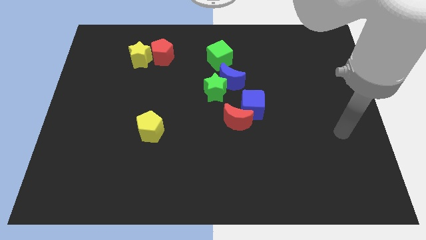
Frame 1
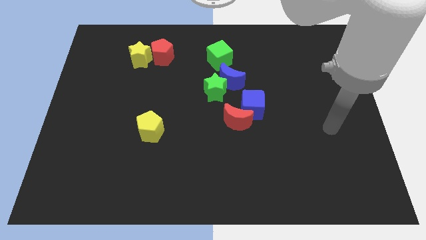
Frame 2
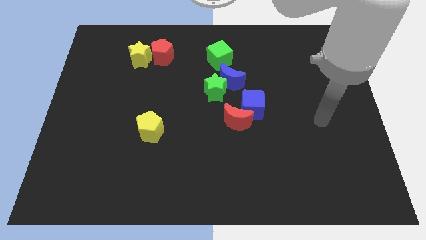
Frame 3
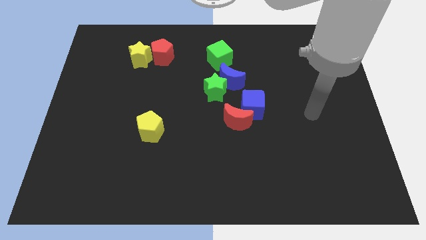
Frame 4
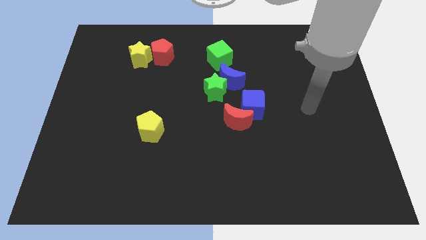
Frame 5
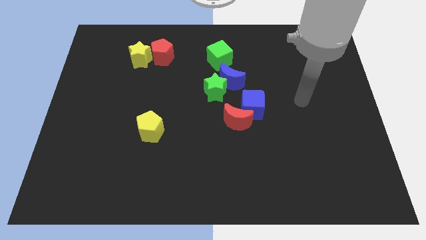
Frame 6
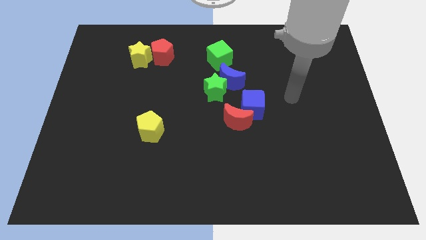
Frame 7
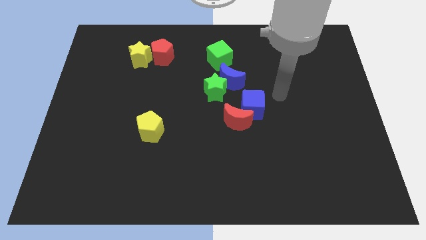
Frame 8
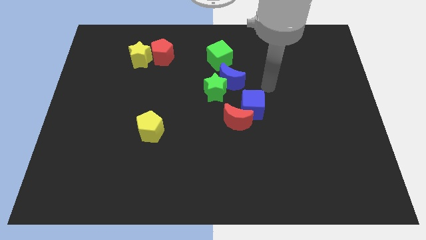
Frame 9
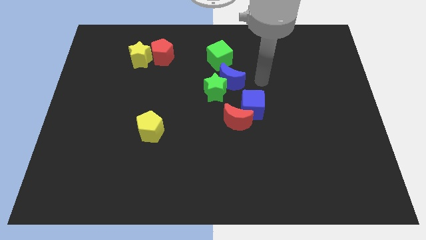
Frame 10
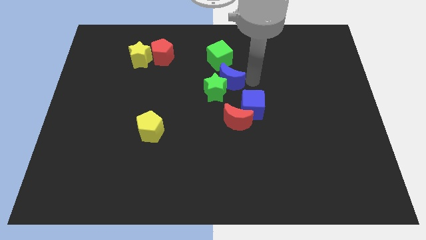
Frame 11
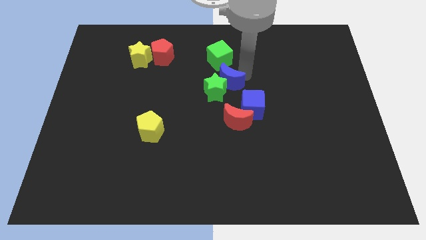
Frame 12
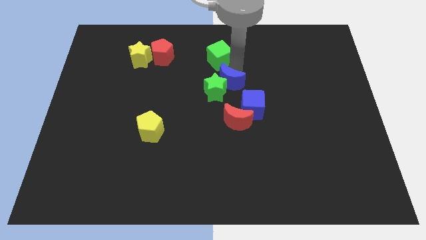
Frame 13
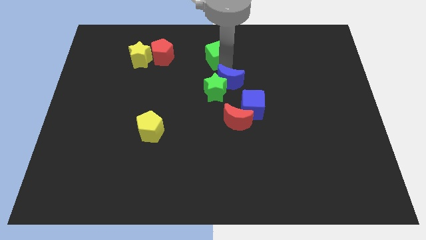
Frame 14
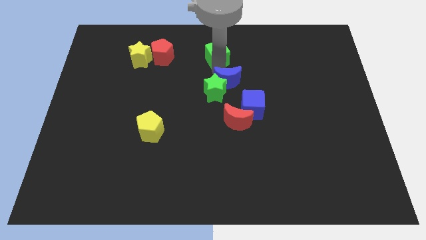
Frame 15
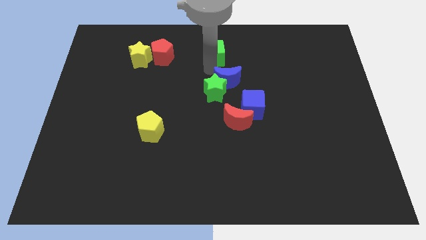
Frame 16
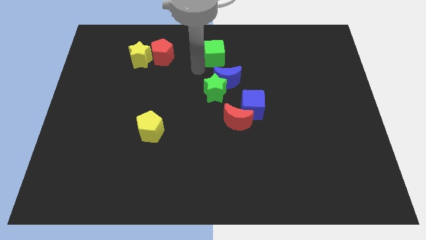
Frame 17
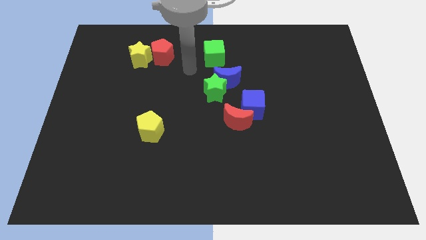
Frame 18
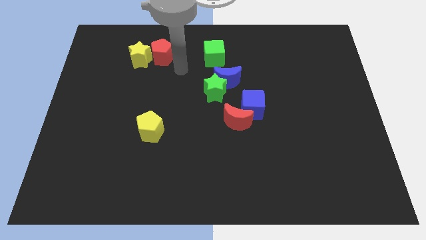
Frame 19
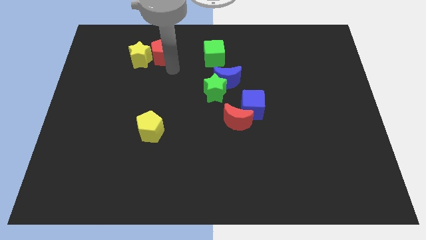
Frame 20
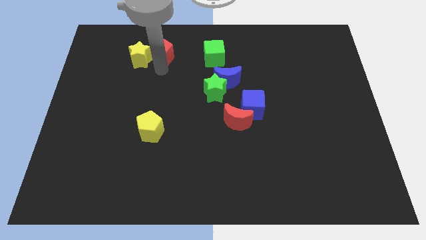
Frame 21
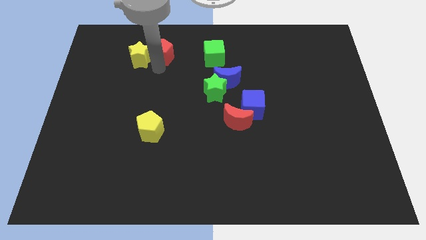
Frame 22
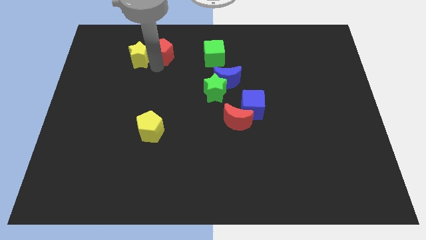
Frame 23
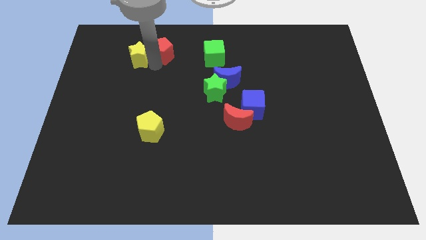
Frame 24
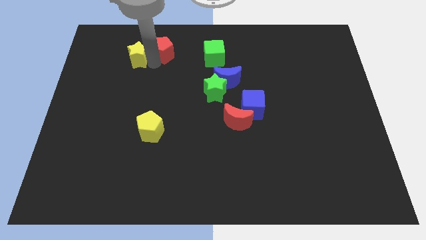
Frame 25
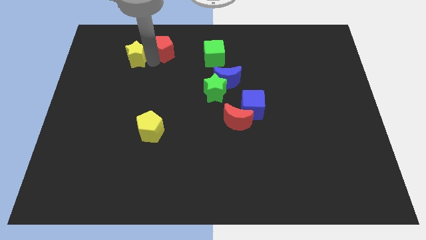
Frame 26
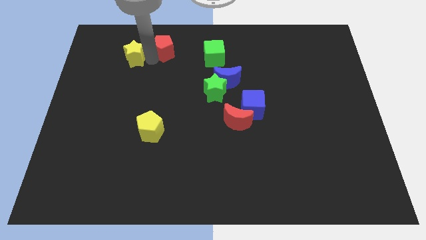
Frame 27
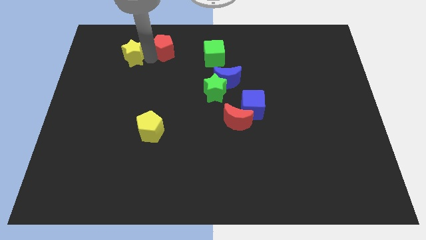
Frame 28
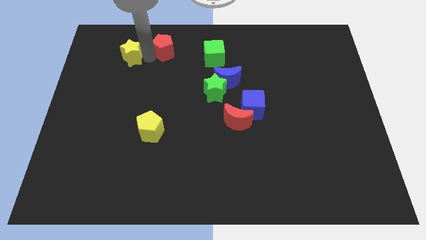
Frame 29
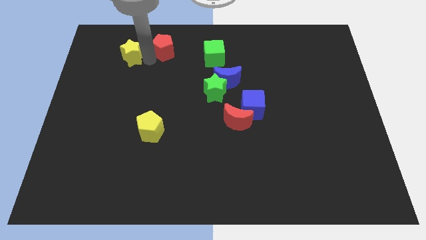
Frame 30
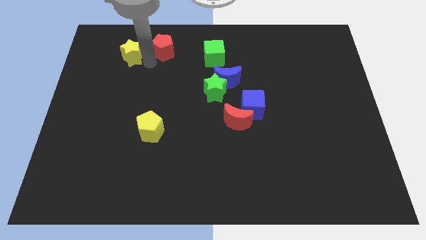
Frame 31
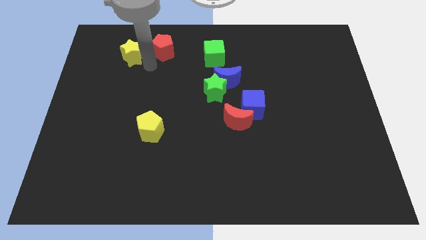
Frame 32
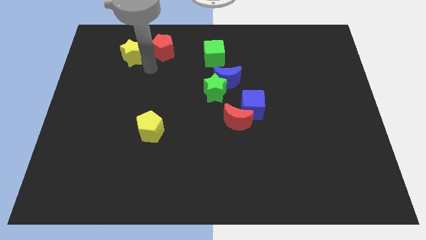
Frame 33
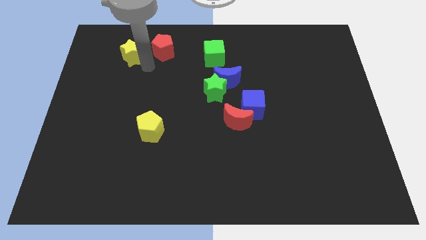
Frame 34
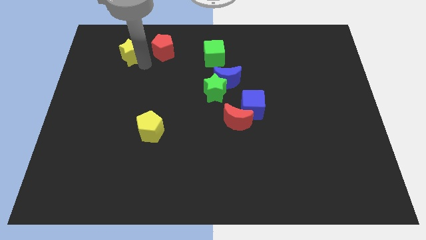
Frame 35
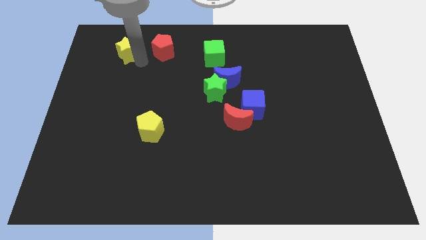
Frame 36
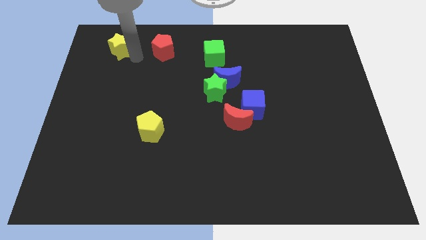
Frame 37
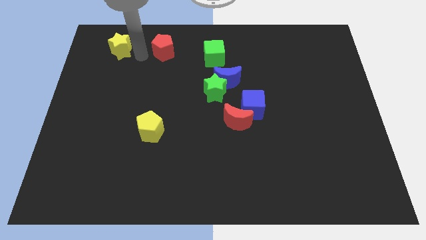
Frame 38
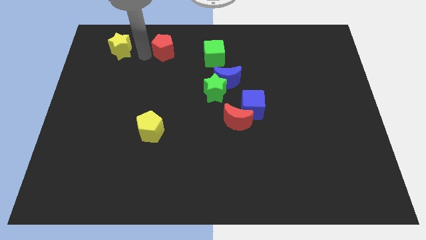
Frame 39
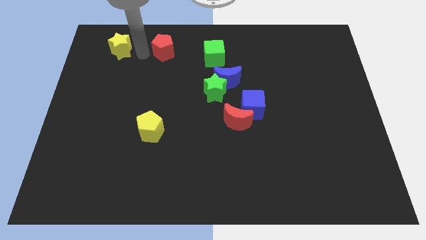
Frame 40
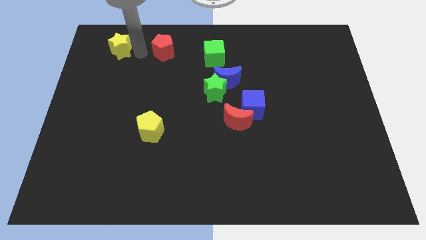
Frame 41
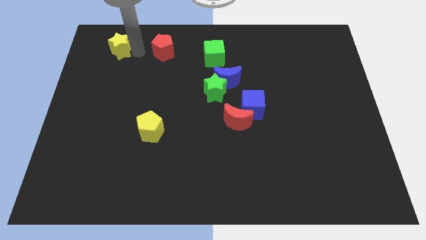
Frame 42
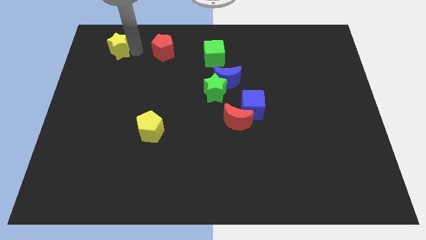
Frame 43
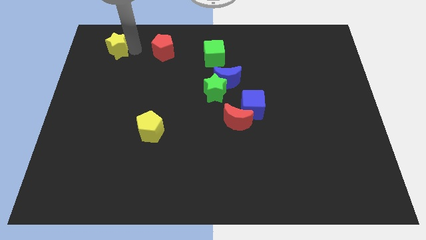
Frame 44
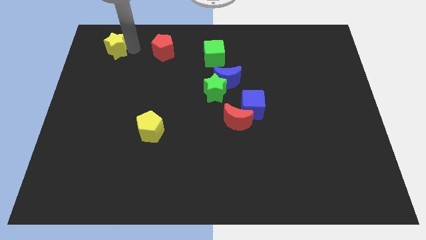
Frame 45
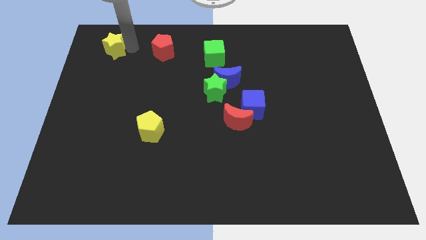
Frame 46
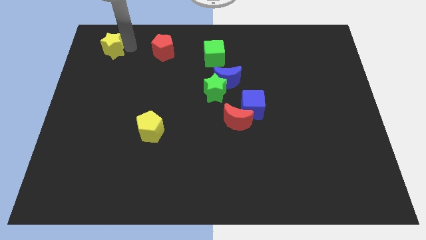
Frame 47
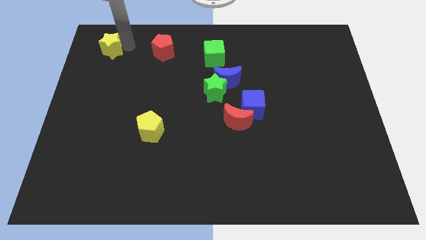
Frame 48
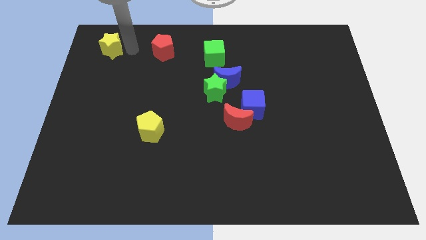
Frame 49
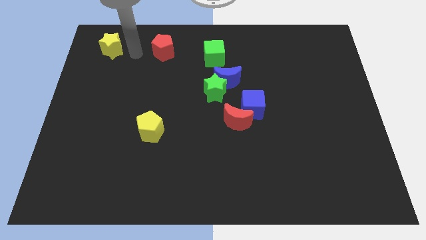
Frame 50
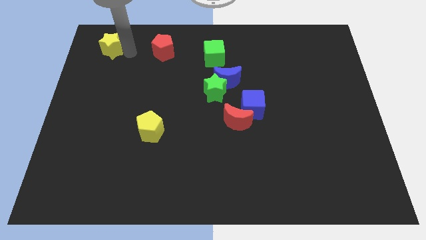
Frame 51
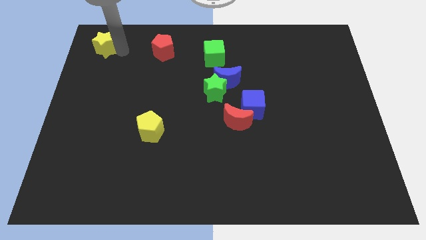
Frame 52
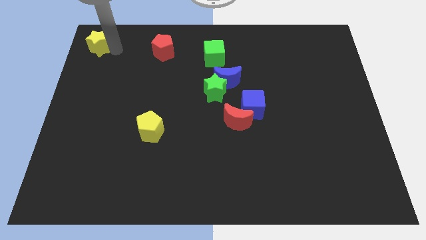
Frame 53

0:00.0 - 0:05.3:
put the yellow star to the top left corner

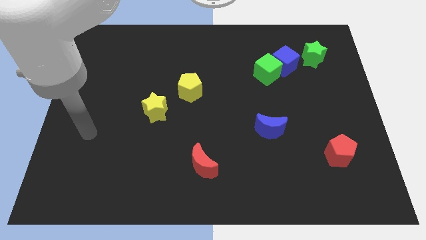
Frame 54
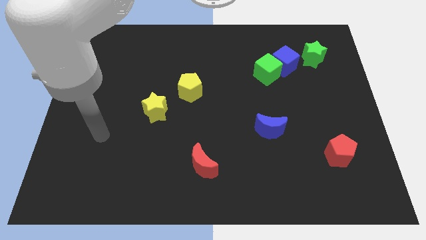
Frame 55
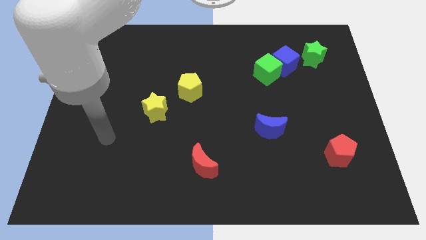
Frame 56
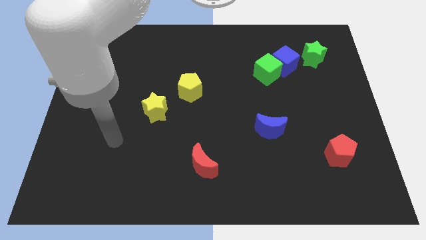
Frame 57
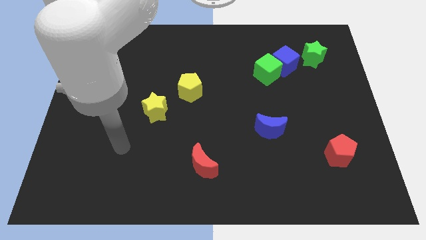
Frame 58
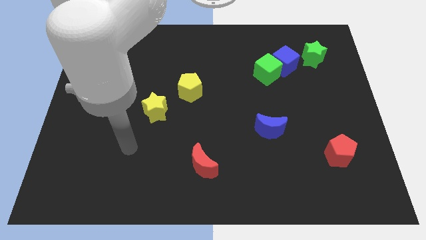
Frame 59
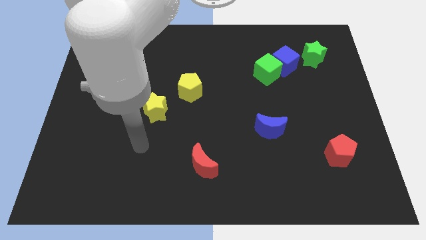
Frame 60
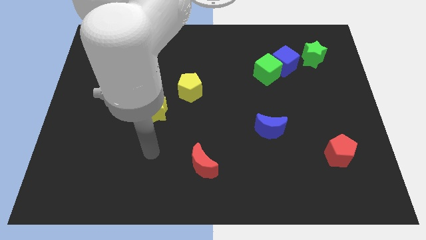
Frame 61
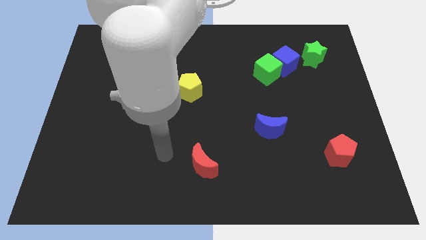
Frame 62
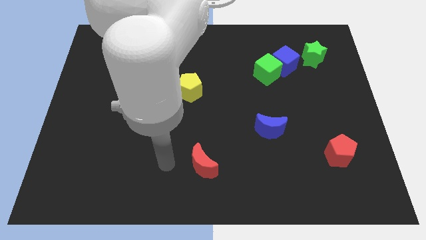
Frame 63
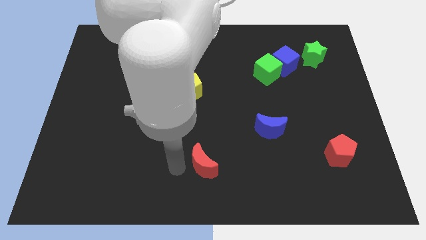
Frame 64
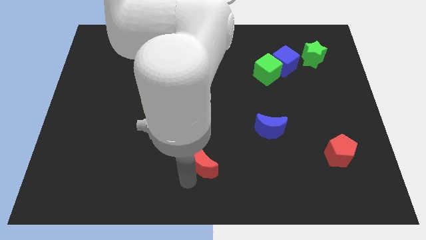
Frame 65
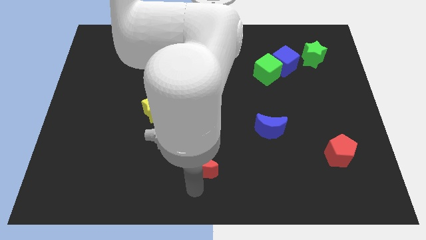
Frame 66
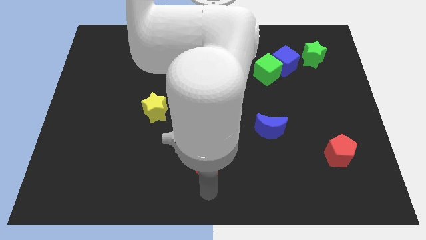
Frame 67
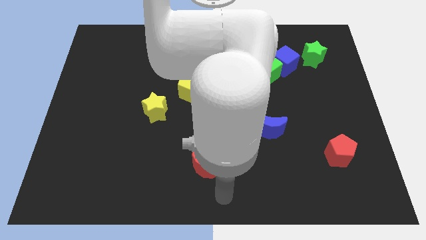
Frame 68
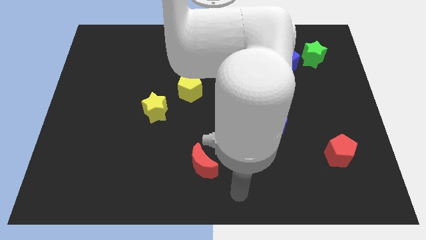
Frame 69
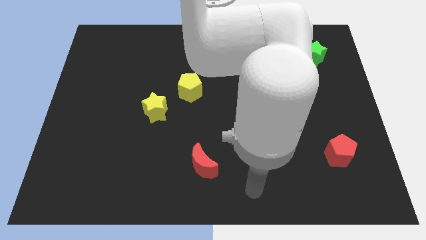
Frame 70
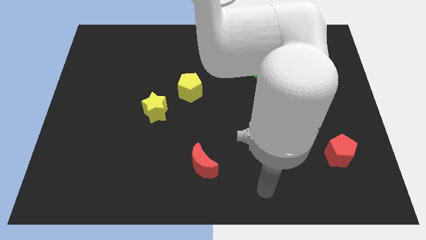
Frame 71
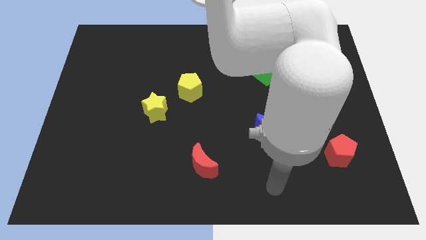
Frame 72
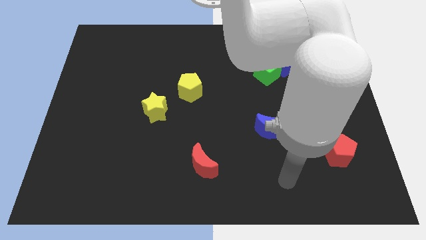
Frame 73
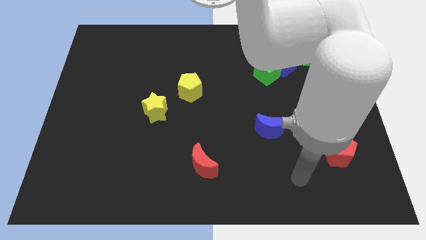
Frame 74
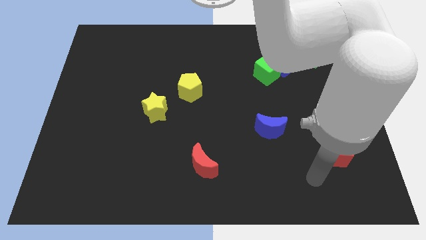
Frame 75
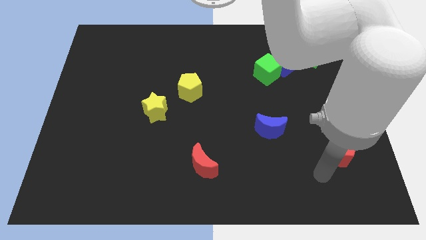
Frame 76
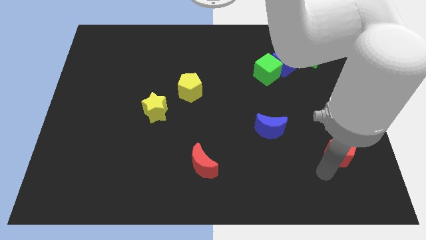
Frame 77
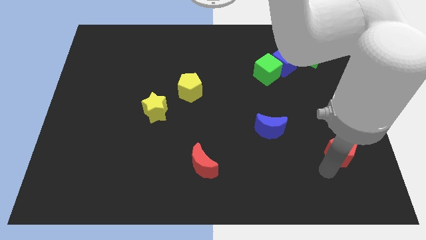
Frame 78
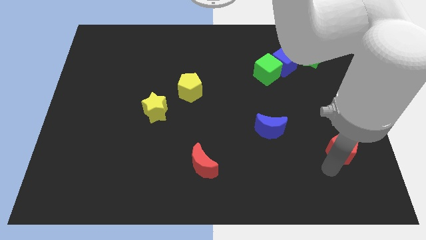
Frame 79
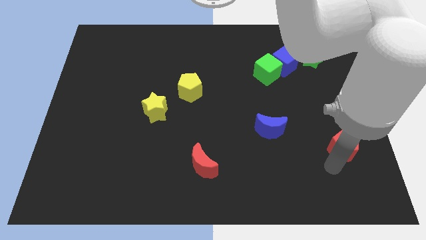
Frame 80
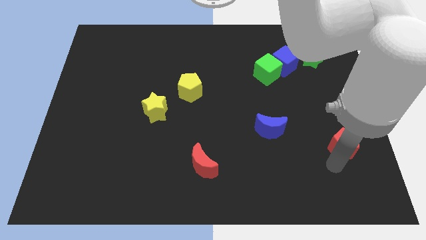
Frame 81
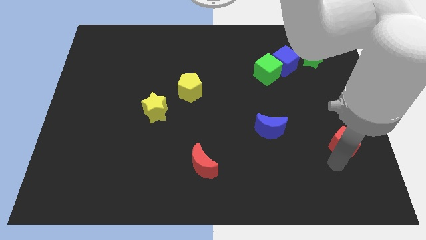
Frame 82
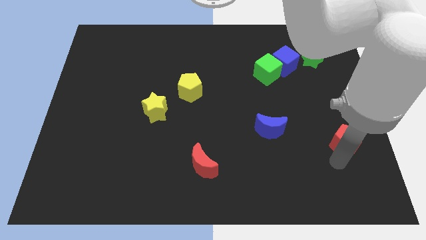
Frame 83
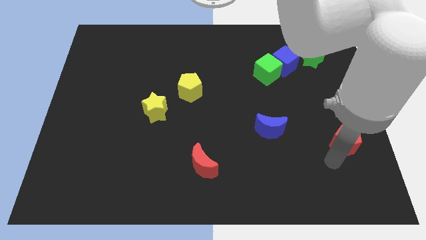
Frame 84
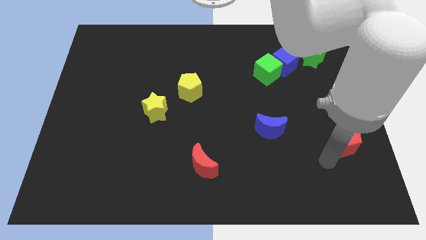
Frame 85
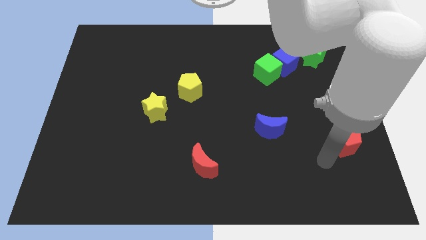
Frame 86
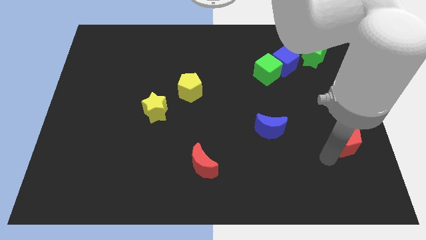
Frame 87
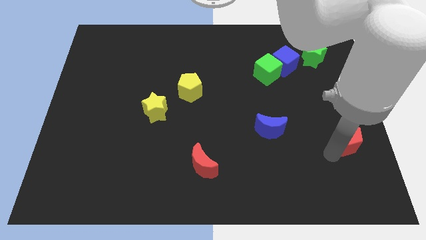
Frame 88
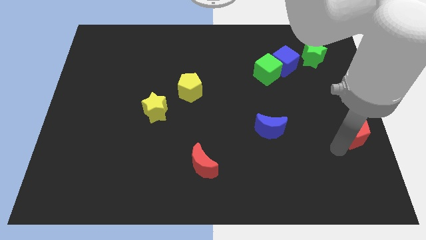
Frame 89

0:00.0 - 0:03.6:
push the red pentagon to the right side
